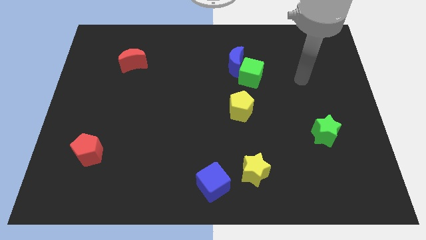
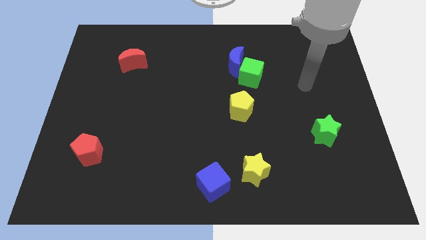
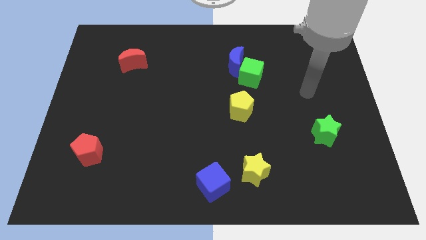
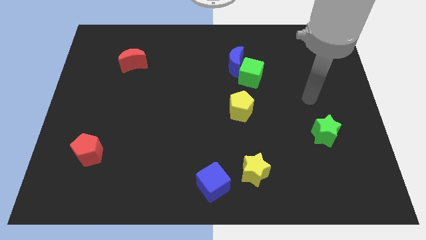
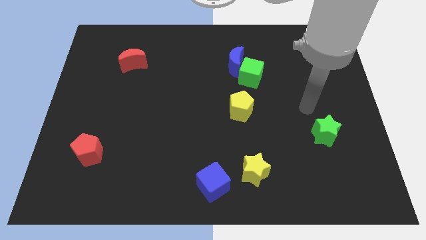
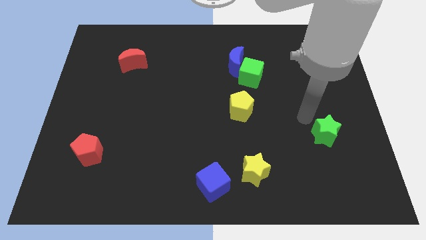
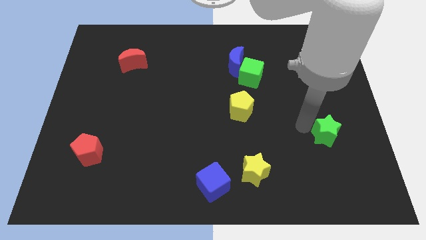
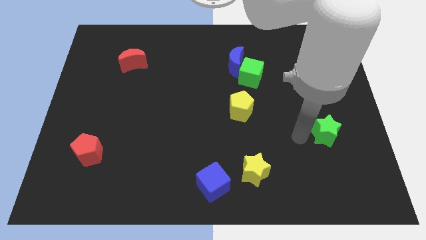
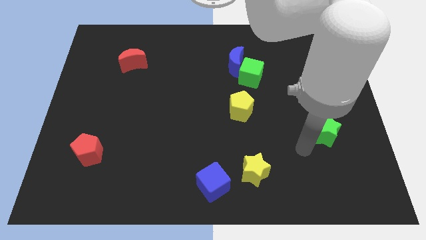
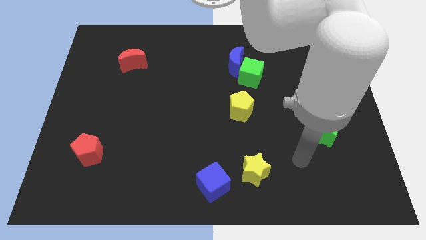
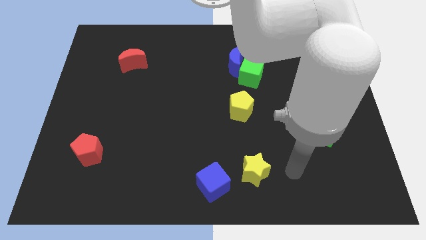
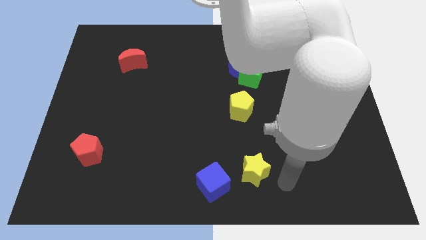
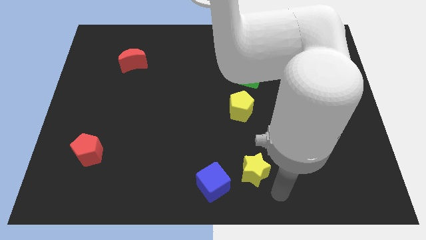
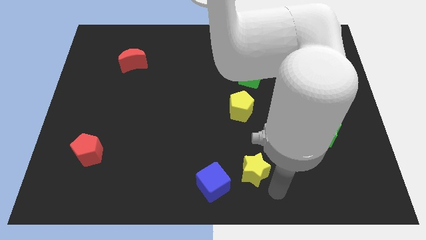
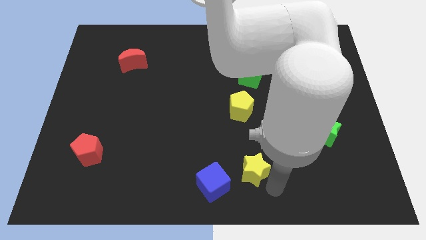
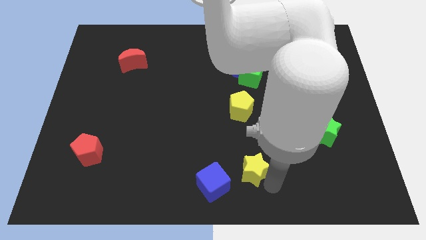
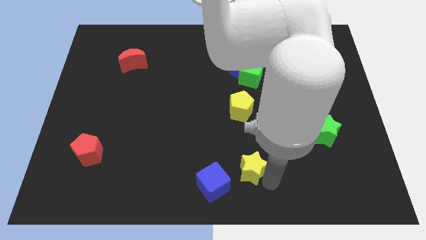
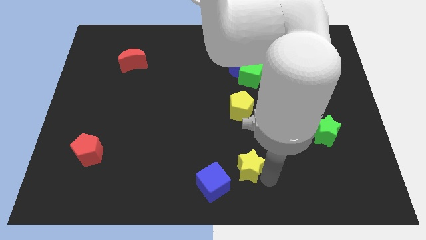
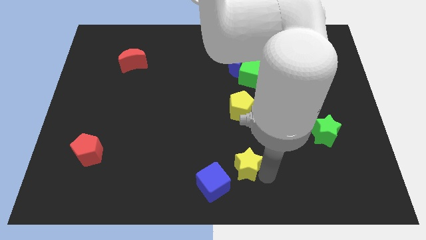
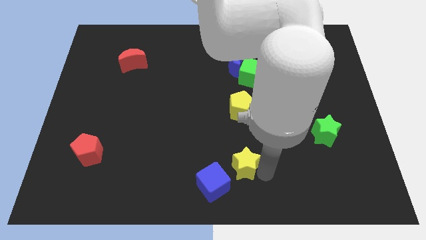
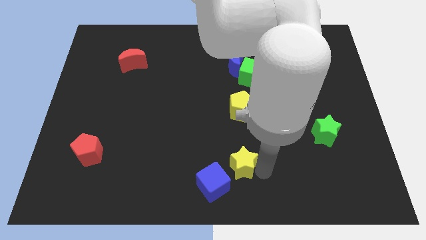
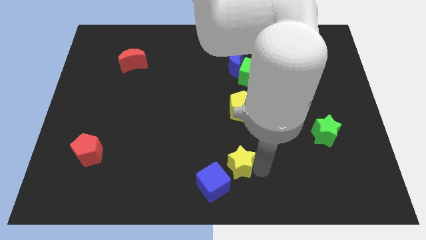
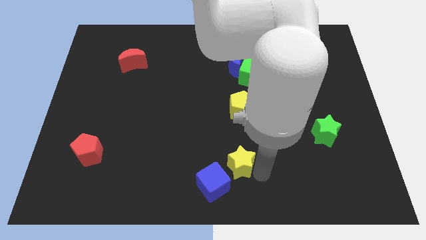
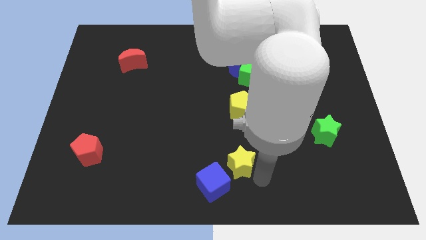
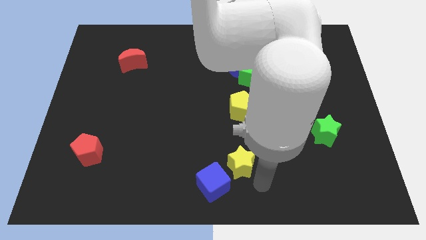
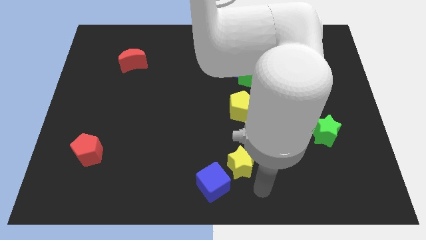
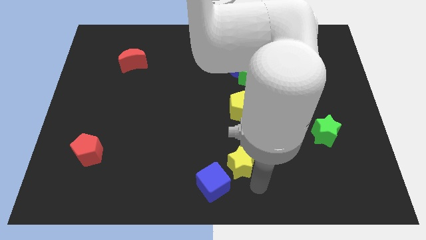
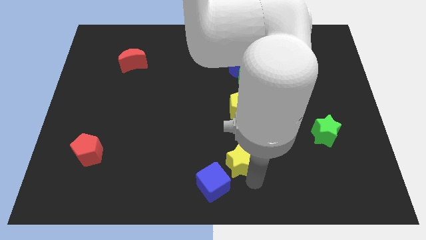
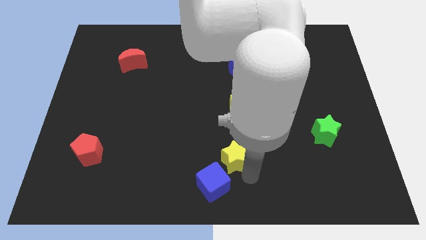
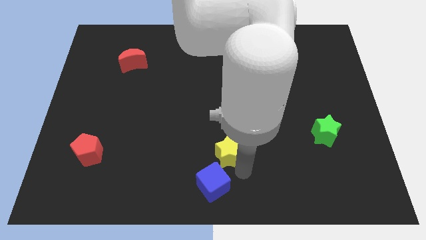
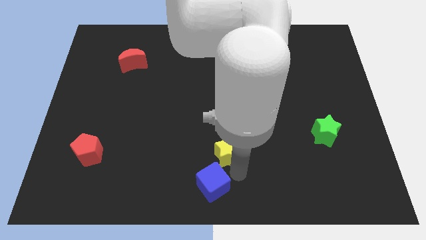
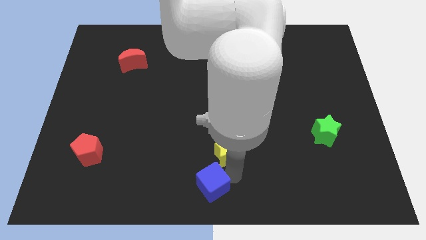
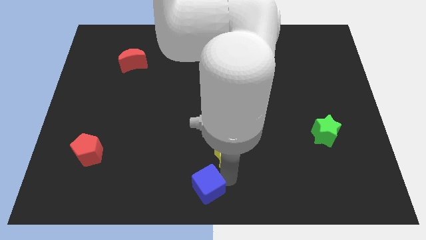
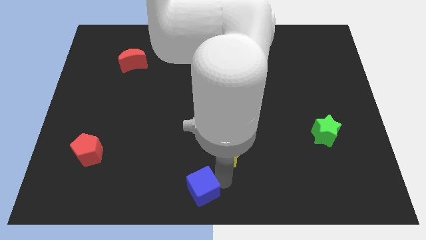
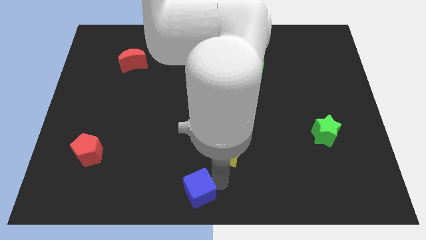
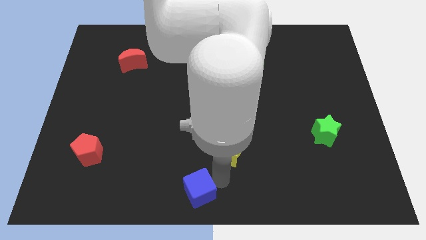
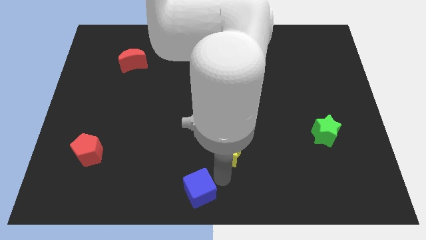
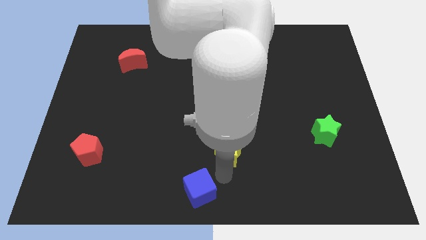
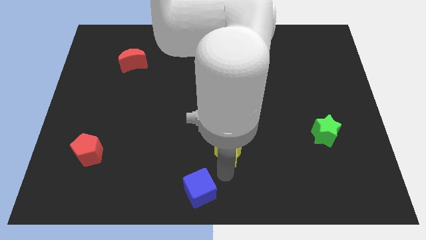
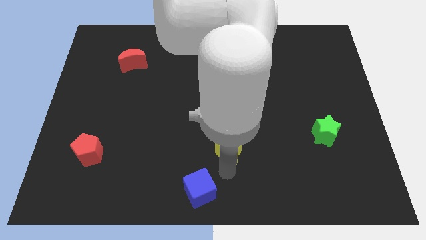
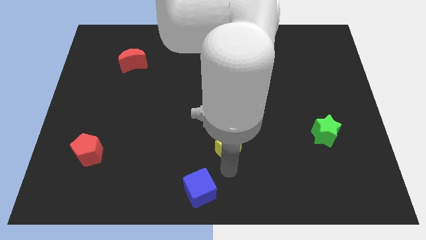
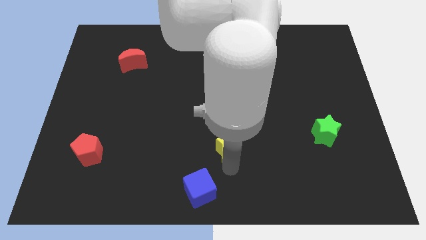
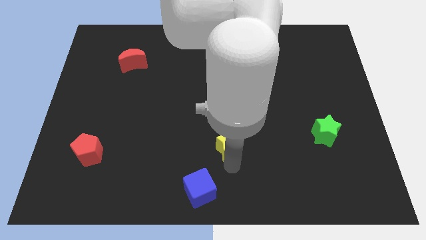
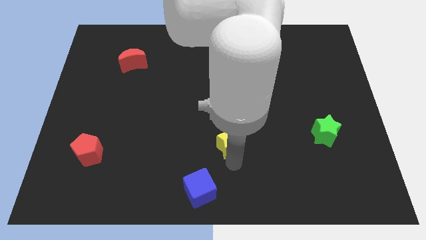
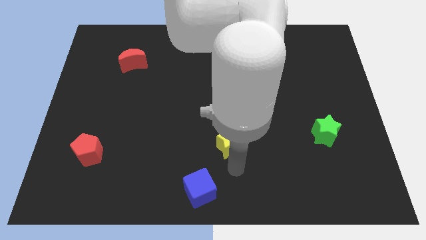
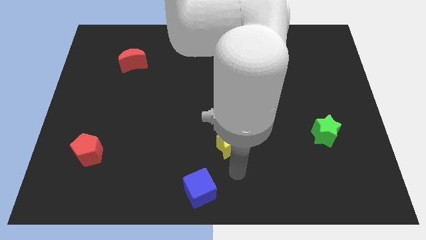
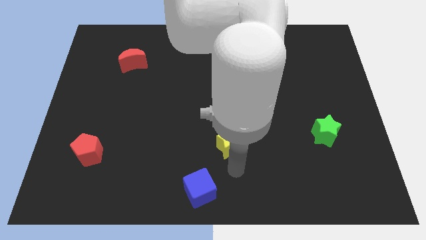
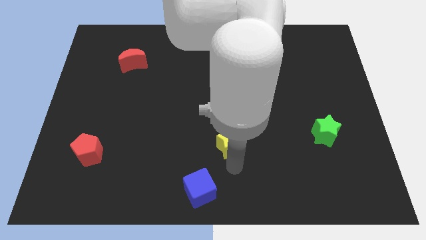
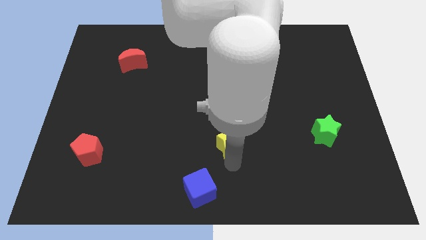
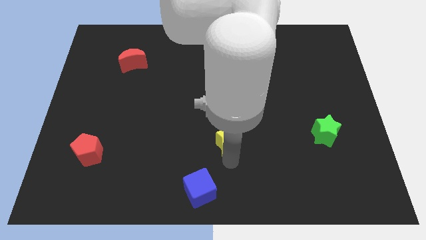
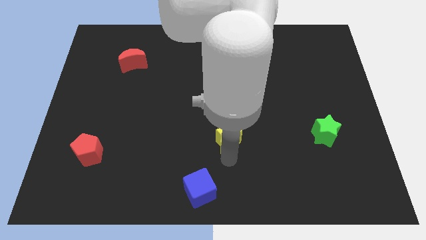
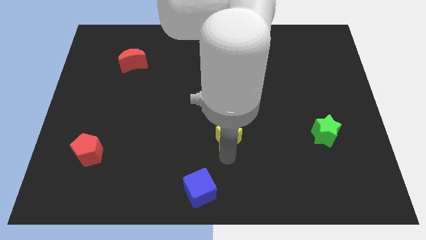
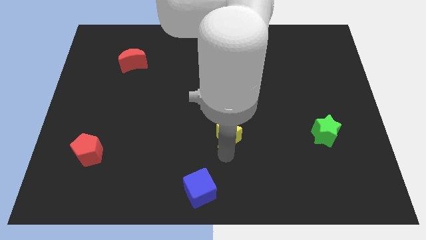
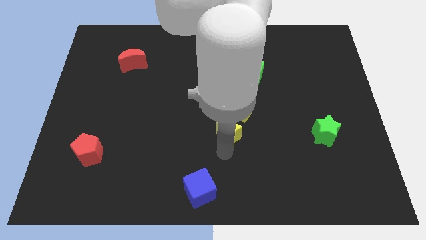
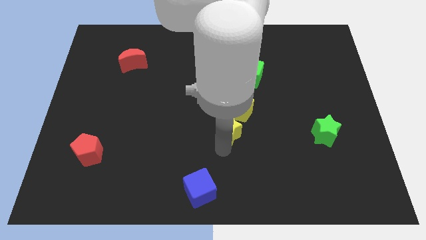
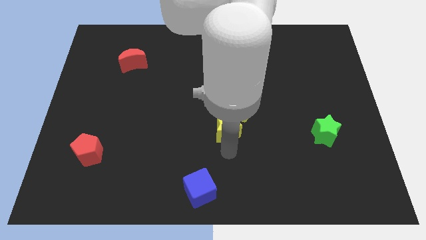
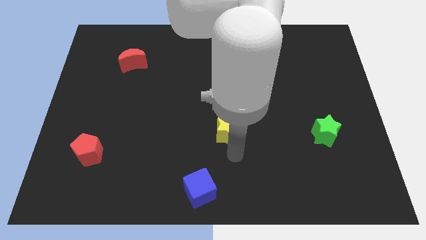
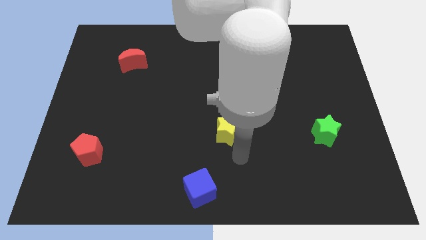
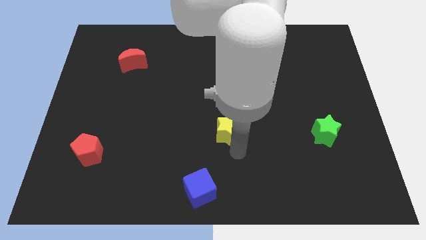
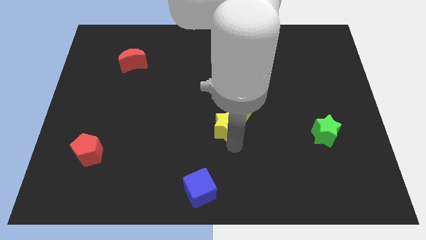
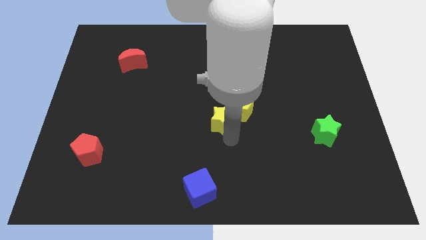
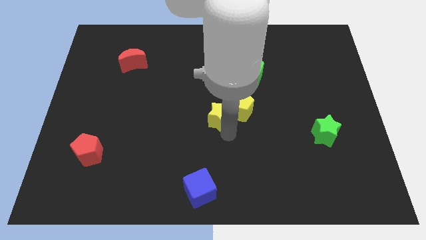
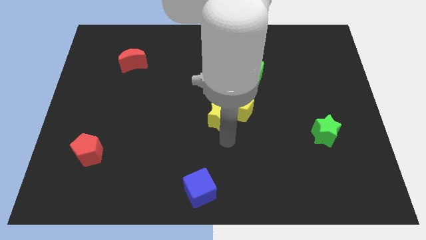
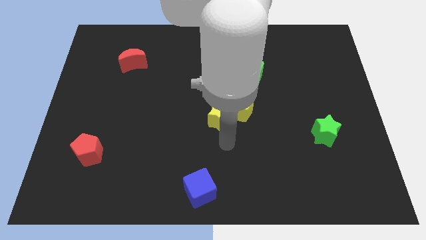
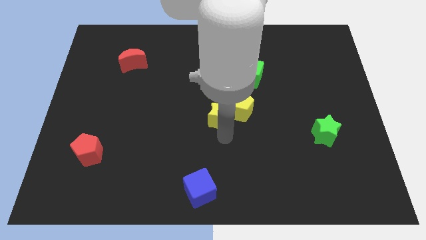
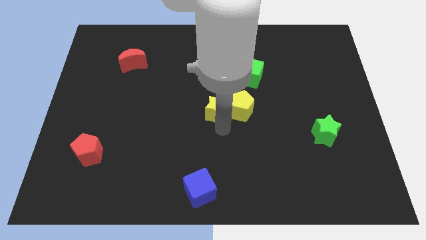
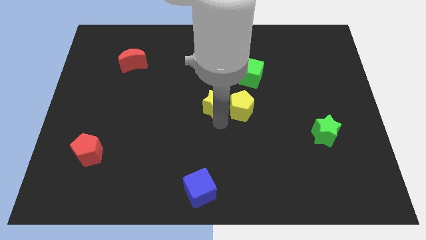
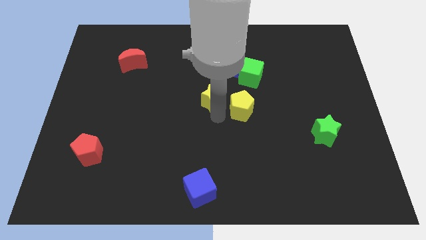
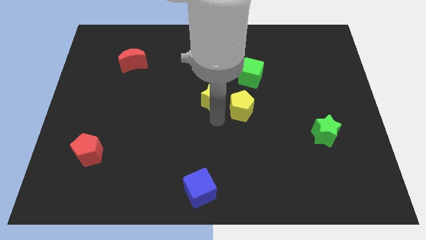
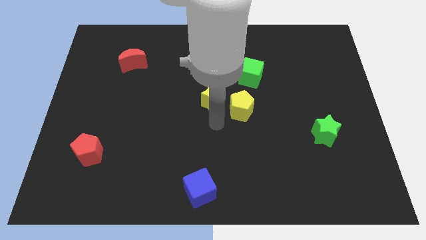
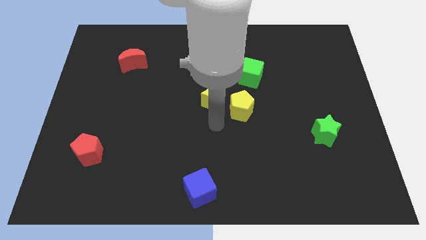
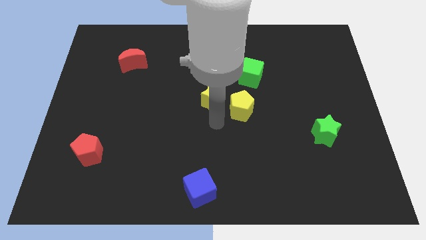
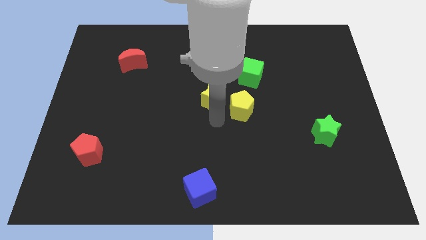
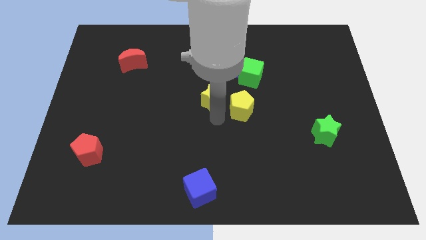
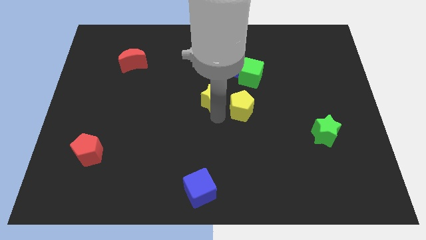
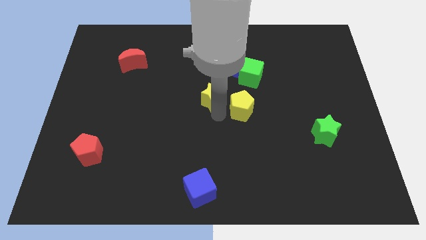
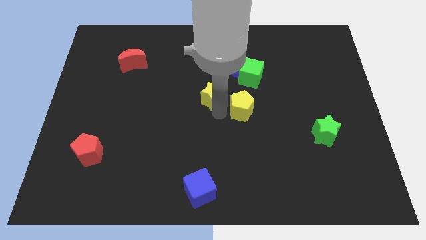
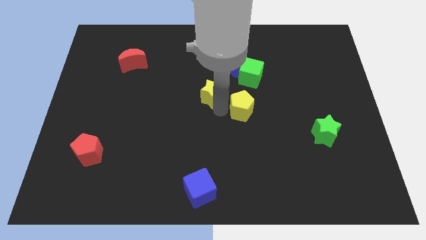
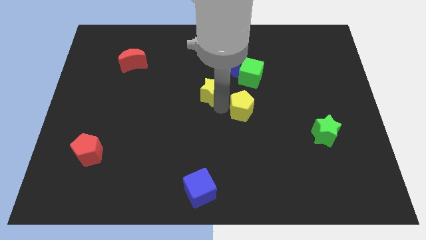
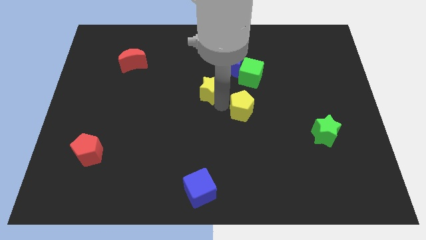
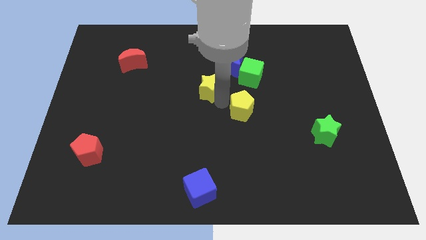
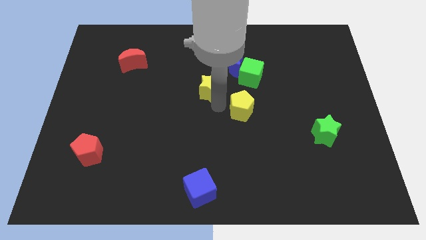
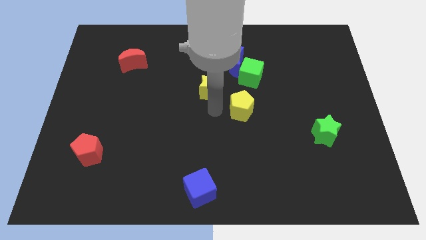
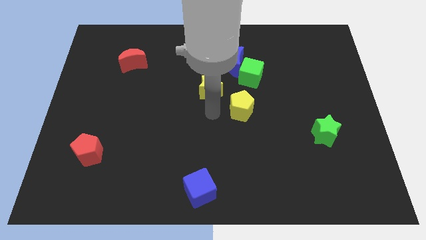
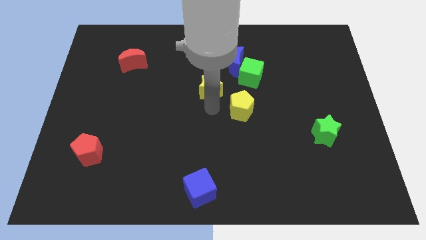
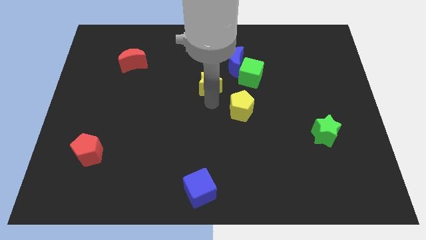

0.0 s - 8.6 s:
slide the yellow star to the left side of the green cube
